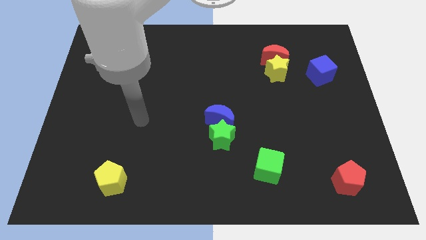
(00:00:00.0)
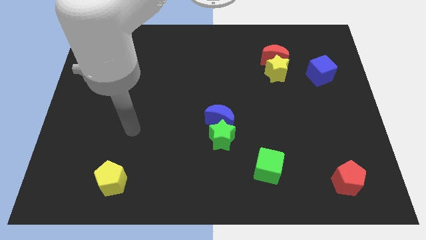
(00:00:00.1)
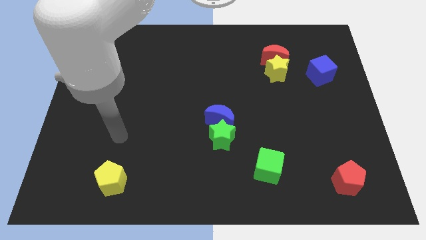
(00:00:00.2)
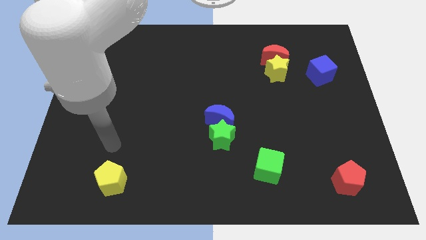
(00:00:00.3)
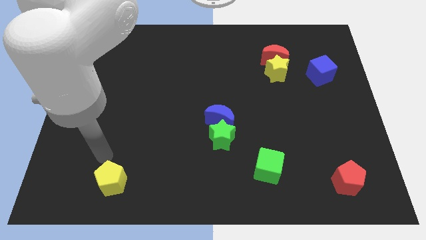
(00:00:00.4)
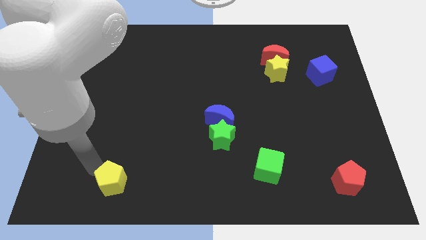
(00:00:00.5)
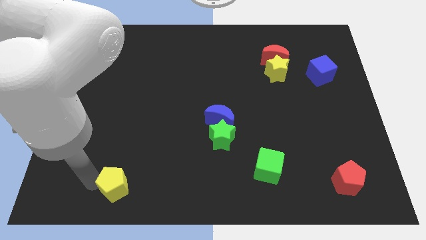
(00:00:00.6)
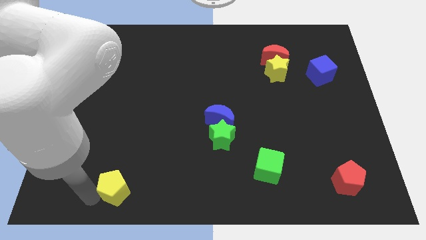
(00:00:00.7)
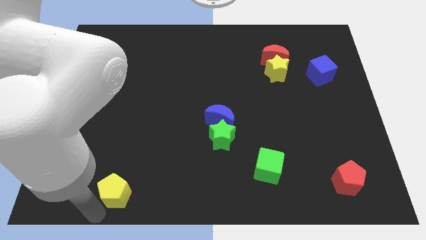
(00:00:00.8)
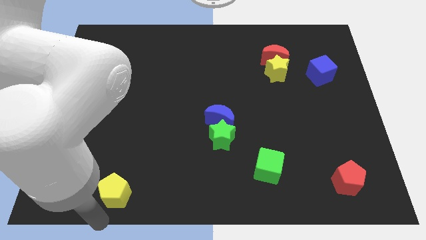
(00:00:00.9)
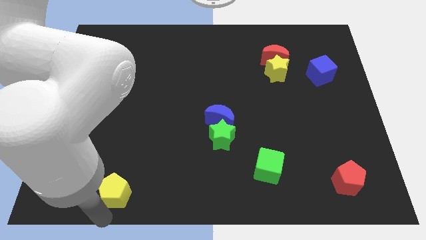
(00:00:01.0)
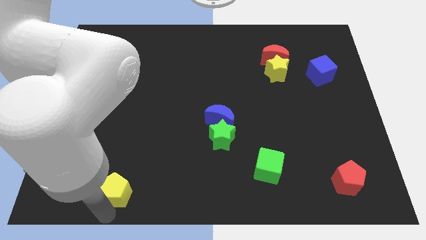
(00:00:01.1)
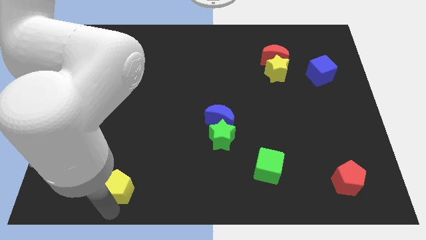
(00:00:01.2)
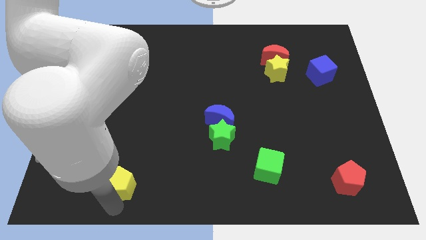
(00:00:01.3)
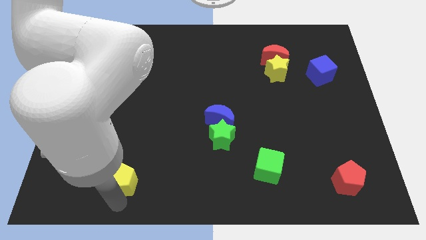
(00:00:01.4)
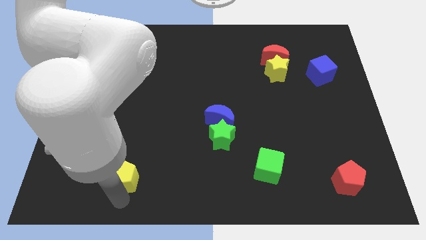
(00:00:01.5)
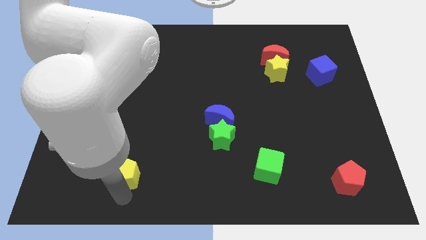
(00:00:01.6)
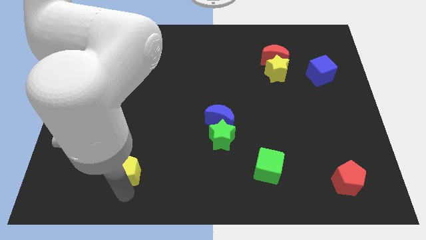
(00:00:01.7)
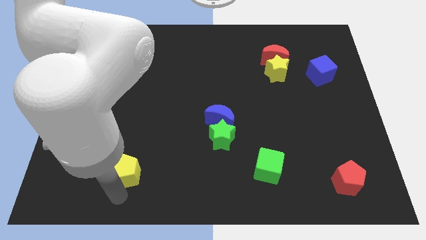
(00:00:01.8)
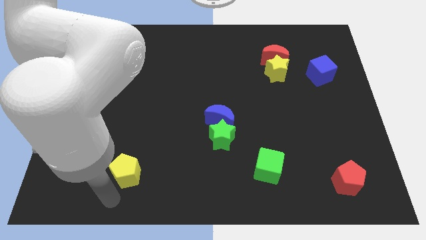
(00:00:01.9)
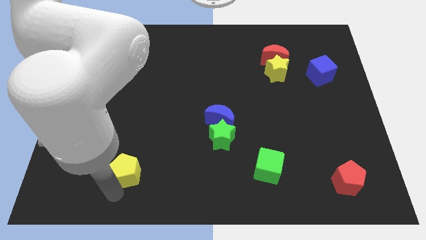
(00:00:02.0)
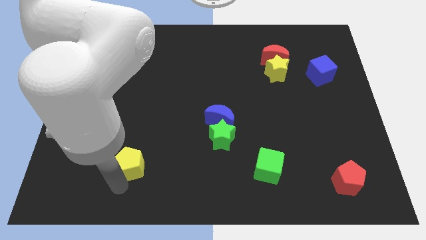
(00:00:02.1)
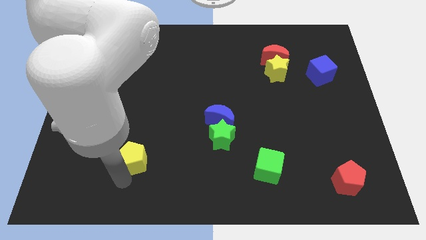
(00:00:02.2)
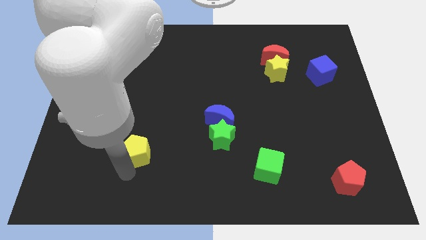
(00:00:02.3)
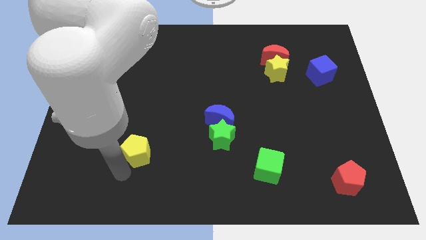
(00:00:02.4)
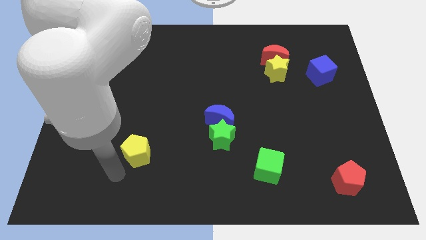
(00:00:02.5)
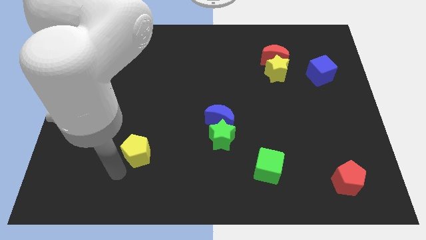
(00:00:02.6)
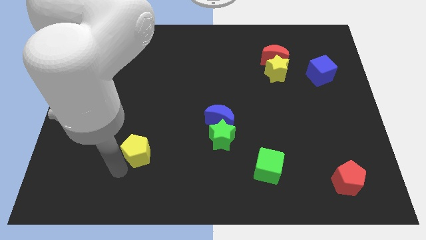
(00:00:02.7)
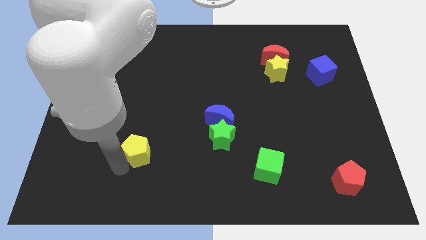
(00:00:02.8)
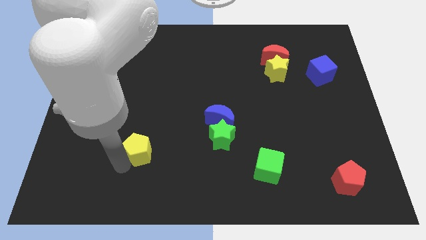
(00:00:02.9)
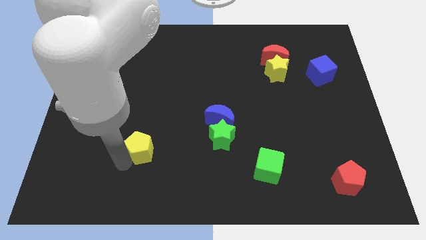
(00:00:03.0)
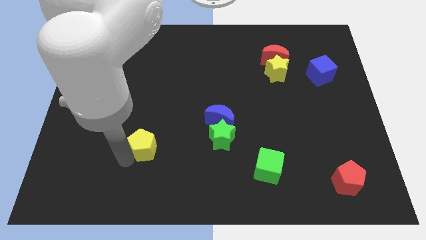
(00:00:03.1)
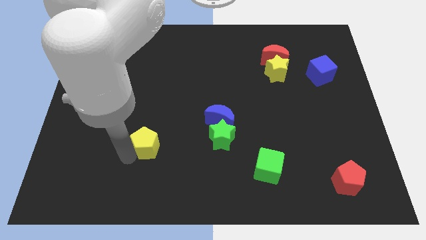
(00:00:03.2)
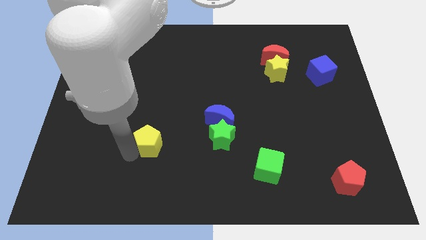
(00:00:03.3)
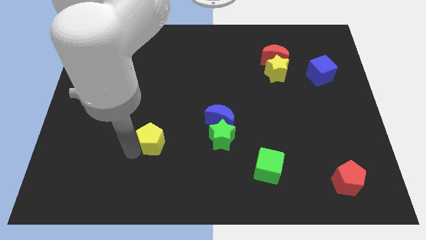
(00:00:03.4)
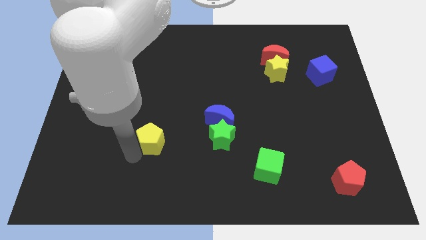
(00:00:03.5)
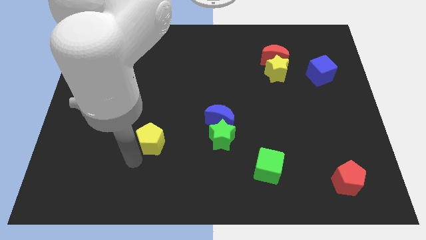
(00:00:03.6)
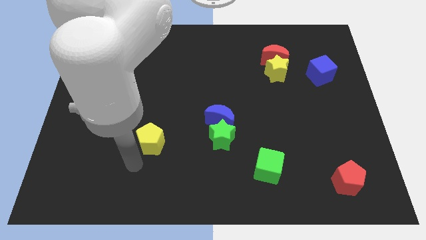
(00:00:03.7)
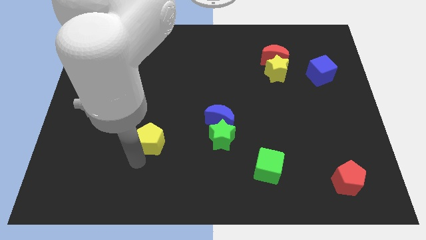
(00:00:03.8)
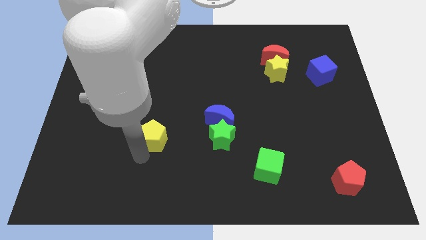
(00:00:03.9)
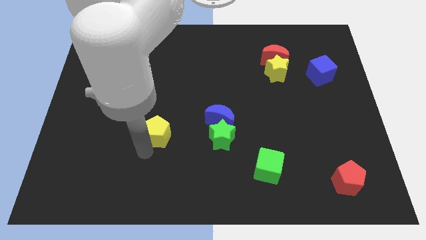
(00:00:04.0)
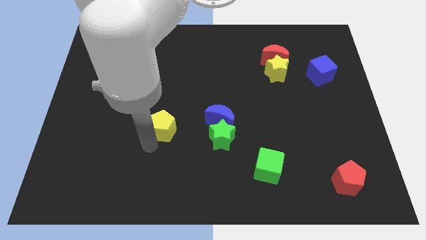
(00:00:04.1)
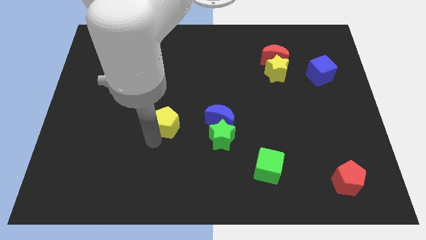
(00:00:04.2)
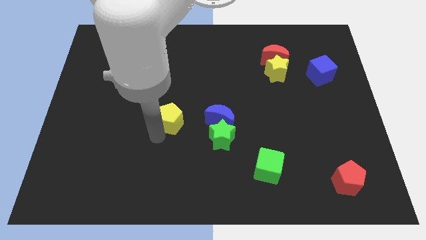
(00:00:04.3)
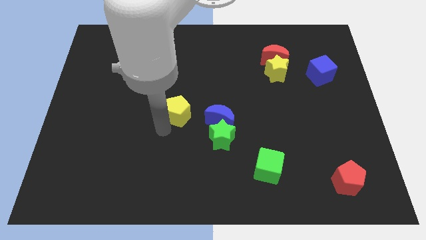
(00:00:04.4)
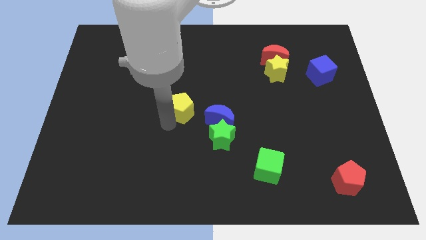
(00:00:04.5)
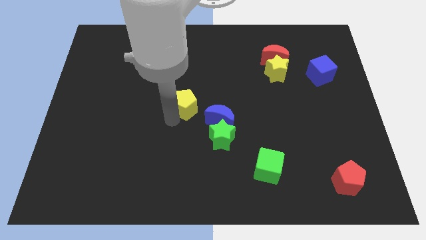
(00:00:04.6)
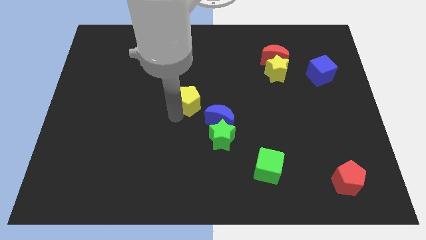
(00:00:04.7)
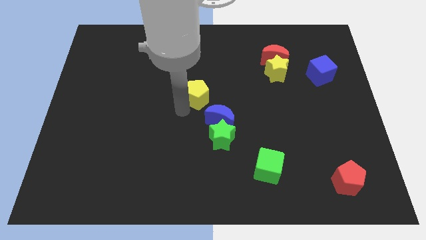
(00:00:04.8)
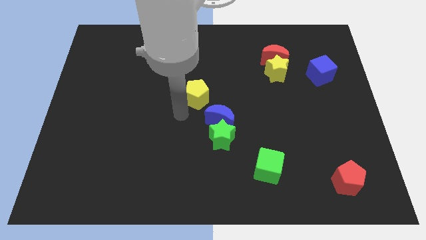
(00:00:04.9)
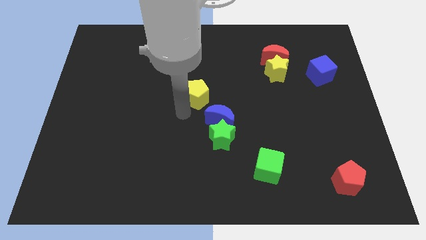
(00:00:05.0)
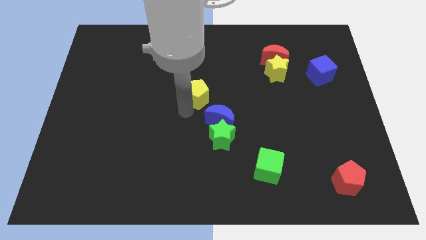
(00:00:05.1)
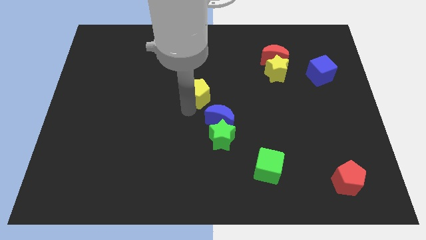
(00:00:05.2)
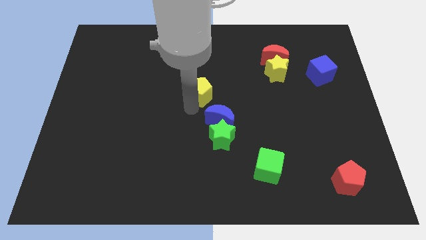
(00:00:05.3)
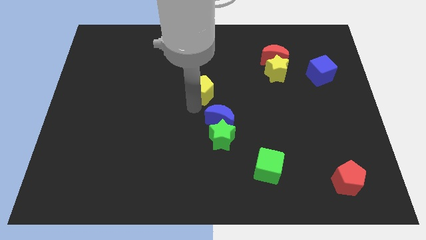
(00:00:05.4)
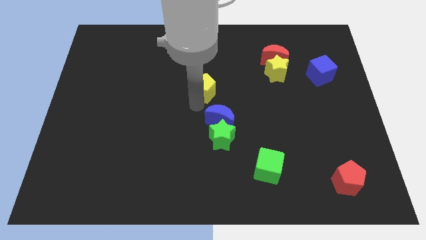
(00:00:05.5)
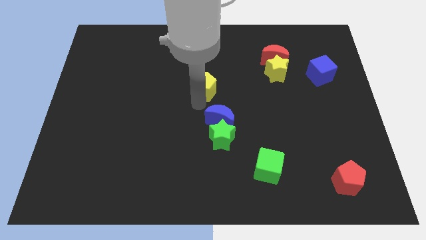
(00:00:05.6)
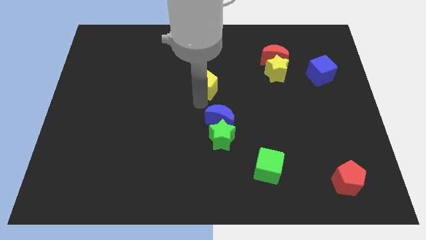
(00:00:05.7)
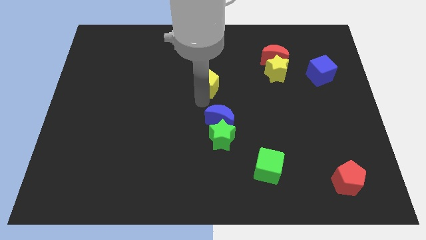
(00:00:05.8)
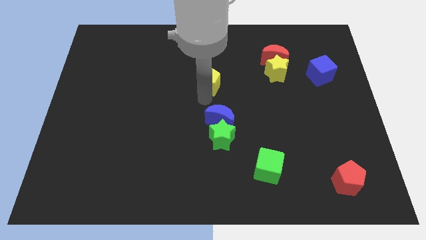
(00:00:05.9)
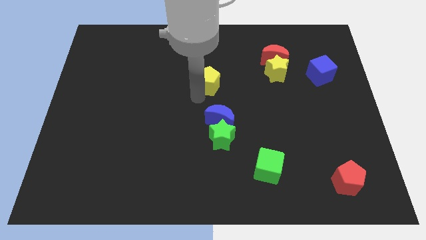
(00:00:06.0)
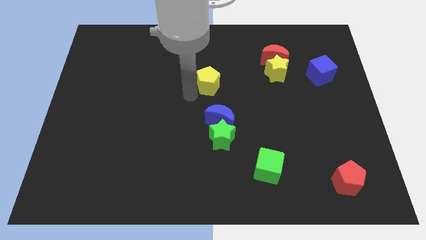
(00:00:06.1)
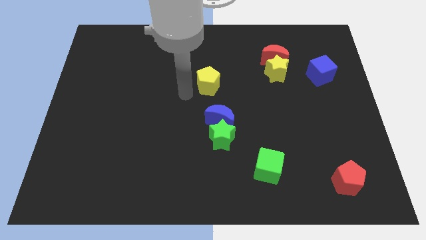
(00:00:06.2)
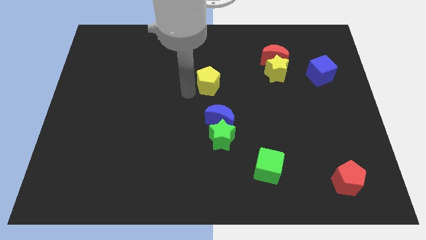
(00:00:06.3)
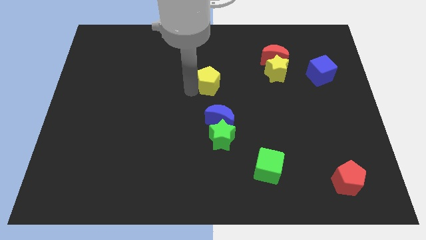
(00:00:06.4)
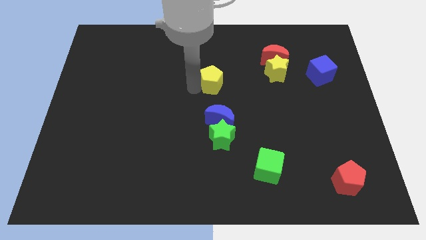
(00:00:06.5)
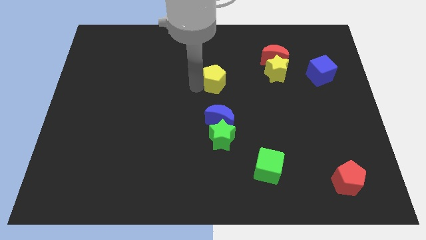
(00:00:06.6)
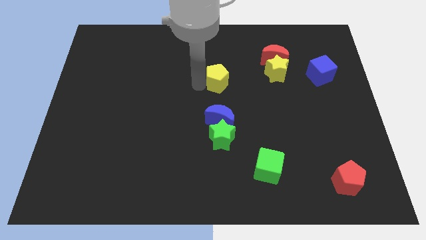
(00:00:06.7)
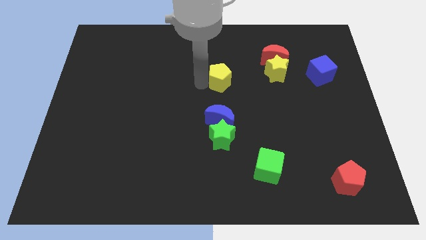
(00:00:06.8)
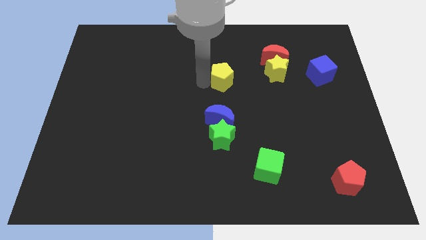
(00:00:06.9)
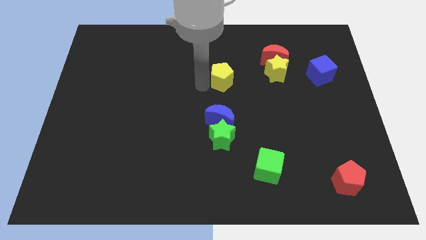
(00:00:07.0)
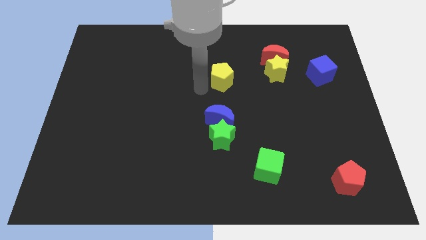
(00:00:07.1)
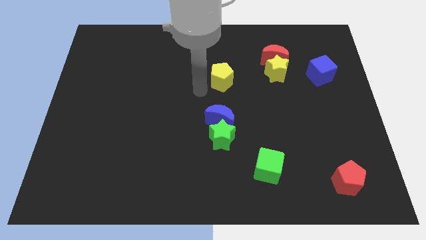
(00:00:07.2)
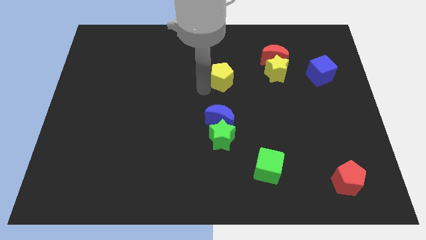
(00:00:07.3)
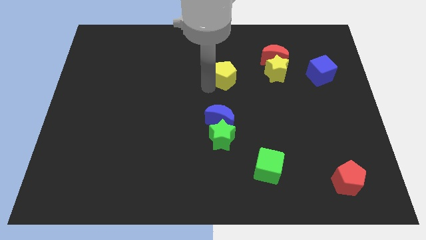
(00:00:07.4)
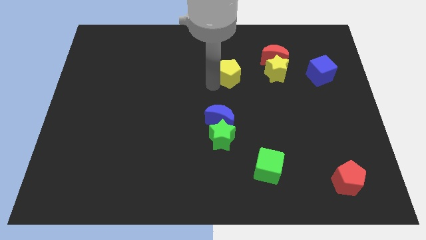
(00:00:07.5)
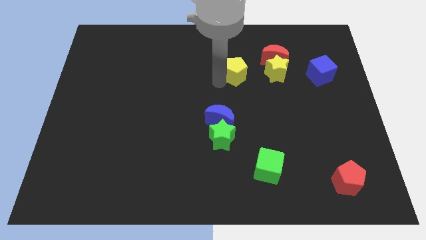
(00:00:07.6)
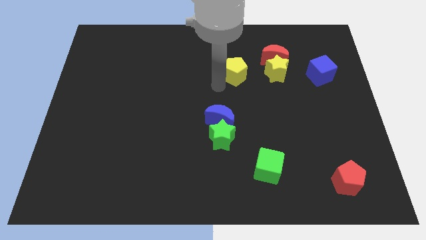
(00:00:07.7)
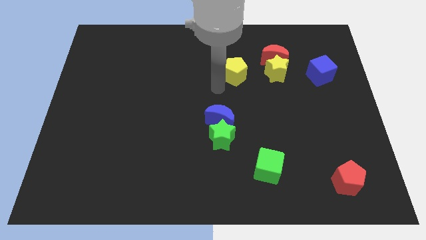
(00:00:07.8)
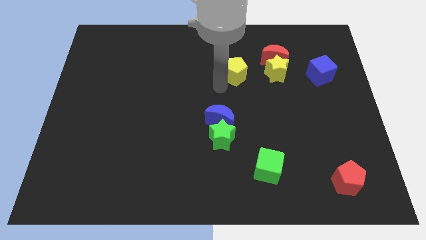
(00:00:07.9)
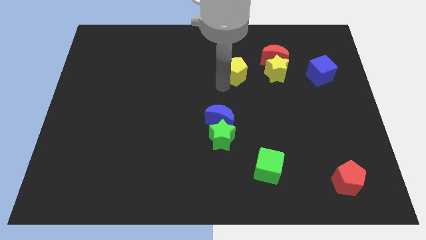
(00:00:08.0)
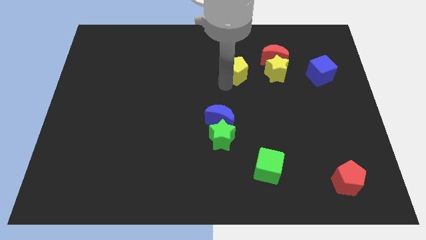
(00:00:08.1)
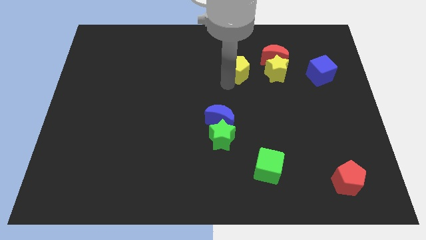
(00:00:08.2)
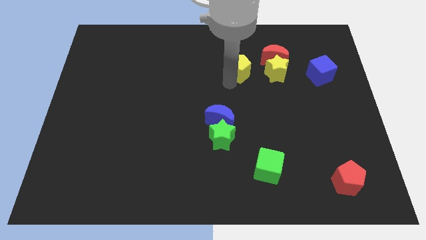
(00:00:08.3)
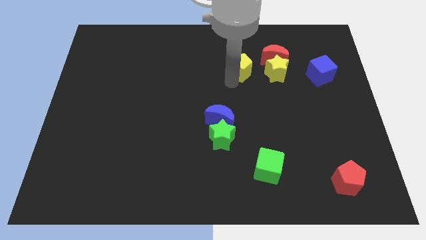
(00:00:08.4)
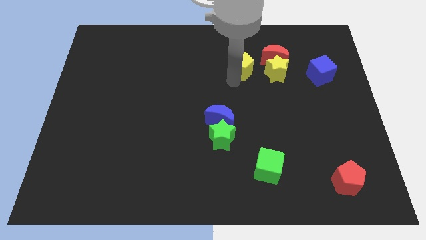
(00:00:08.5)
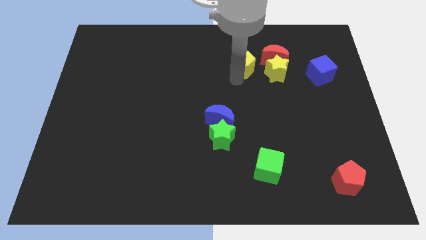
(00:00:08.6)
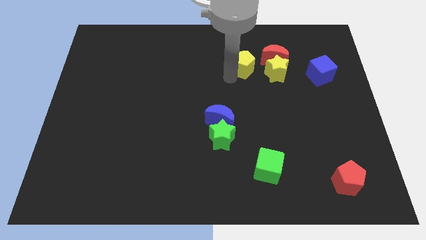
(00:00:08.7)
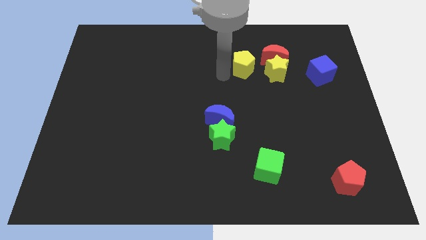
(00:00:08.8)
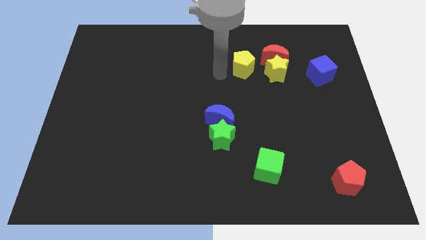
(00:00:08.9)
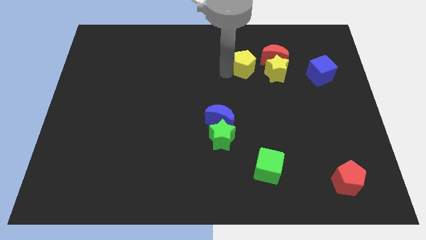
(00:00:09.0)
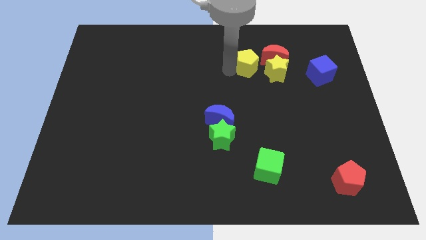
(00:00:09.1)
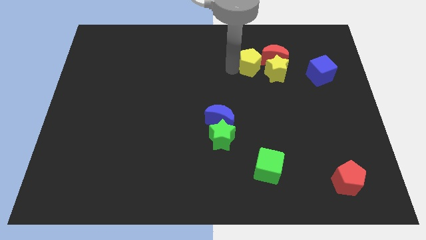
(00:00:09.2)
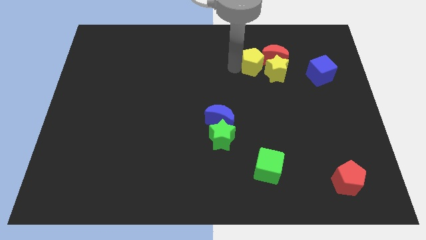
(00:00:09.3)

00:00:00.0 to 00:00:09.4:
put the yellow pentagon close to the red moon
